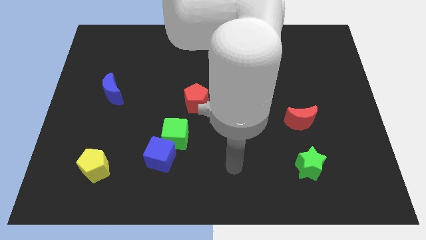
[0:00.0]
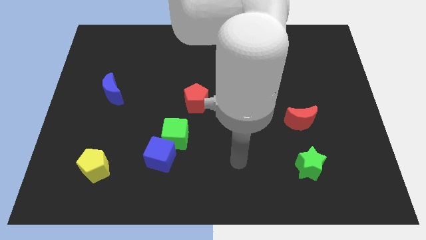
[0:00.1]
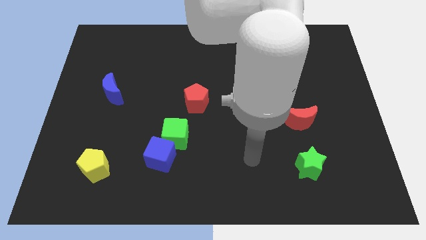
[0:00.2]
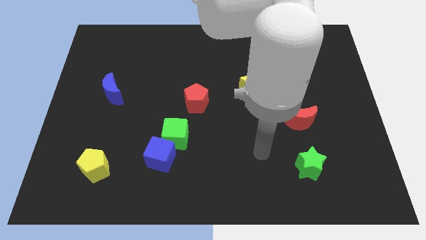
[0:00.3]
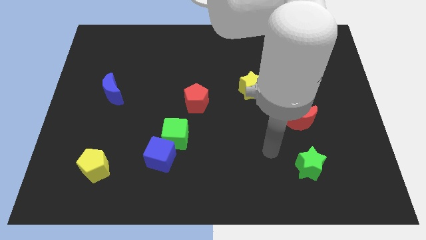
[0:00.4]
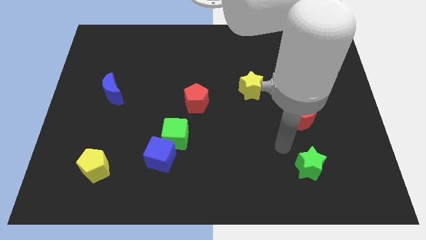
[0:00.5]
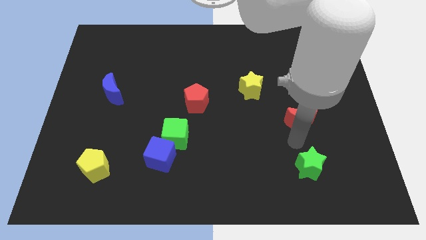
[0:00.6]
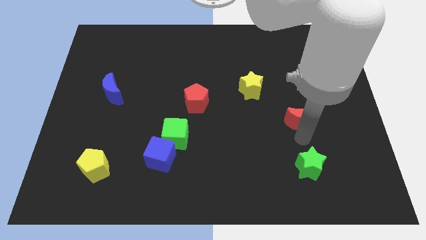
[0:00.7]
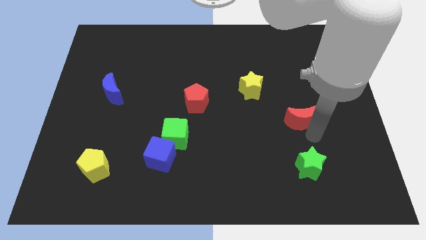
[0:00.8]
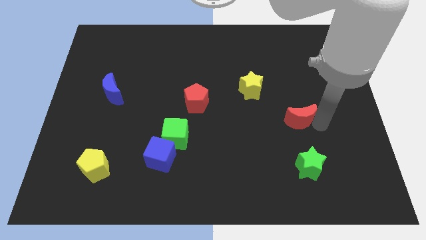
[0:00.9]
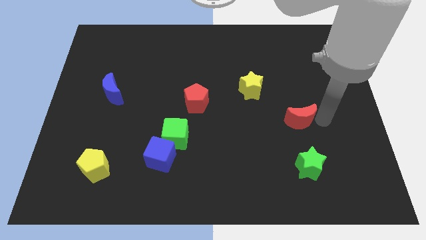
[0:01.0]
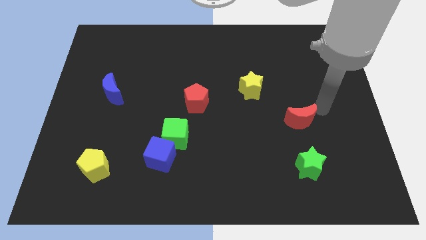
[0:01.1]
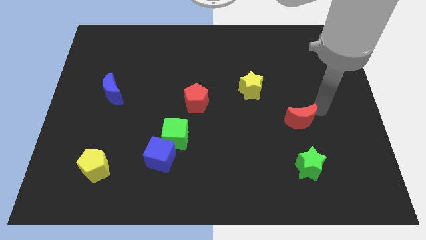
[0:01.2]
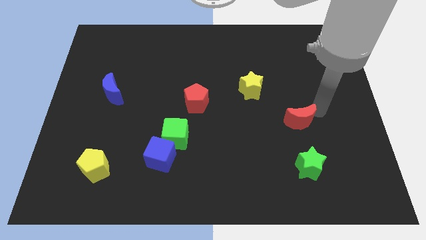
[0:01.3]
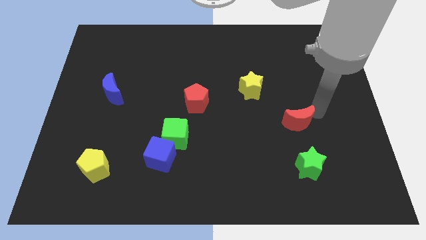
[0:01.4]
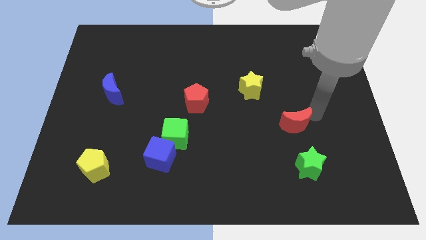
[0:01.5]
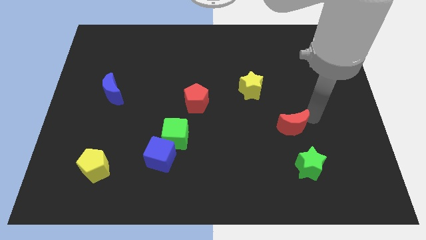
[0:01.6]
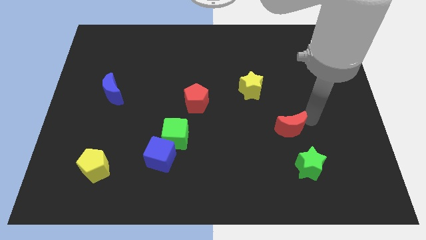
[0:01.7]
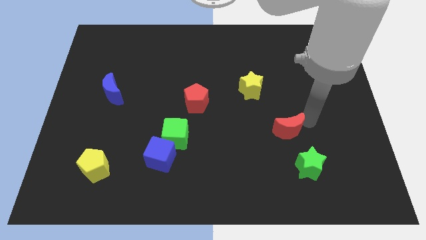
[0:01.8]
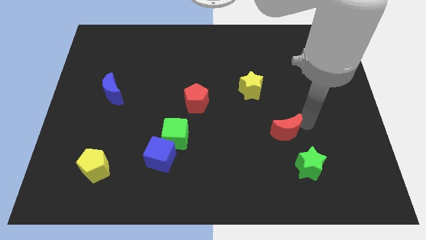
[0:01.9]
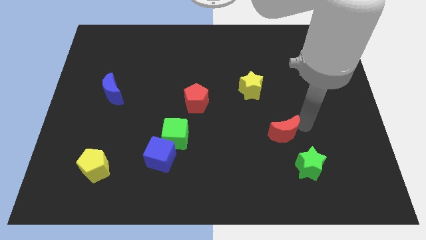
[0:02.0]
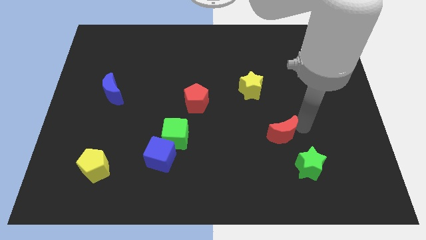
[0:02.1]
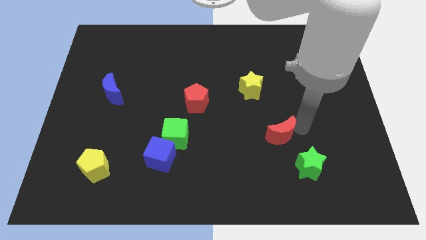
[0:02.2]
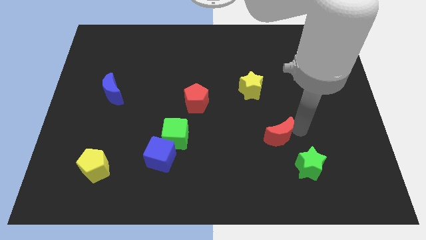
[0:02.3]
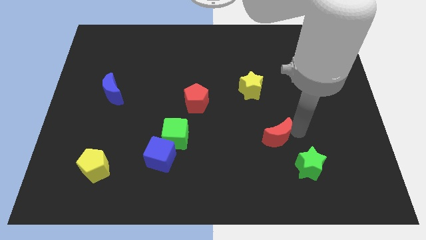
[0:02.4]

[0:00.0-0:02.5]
slide the red moon downwards and left slightly

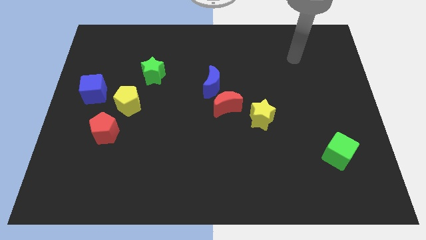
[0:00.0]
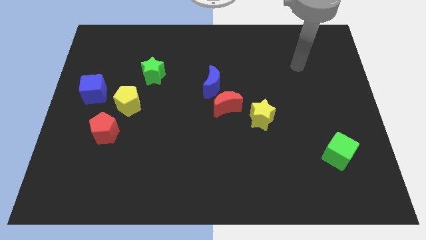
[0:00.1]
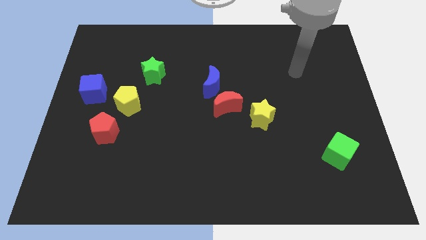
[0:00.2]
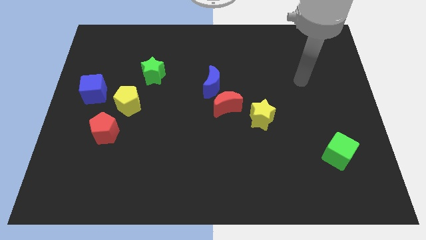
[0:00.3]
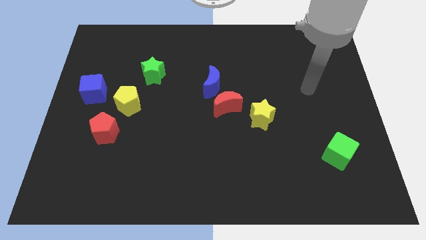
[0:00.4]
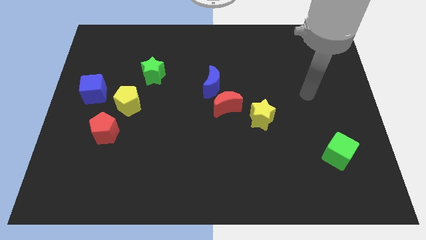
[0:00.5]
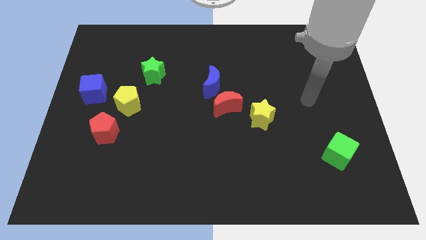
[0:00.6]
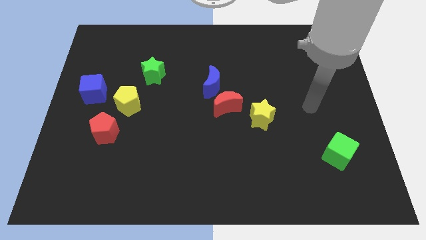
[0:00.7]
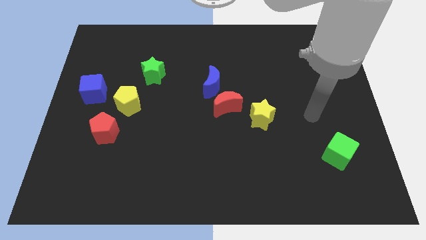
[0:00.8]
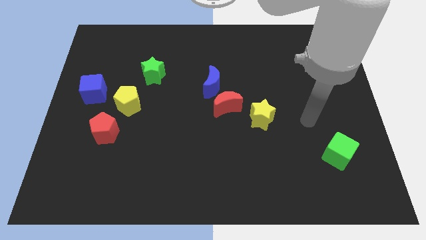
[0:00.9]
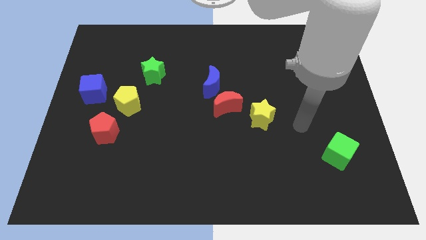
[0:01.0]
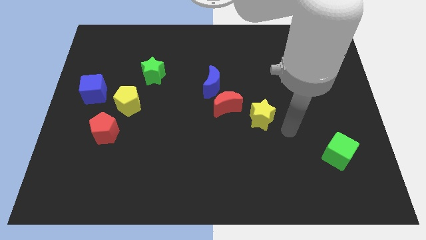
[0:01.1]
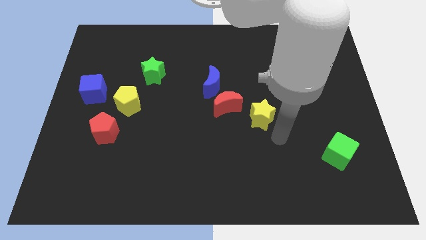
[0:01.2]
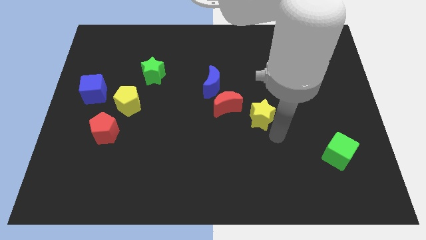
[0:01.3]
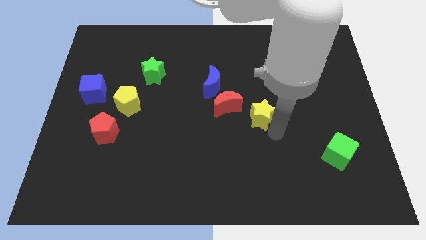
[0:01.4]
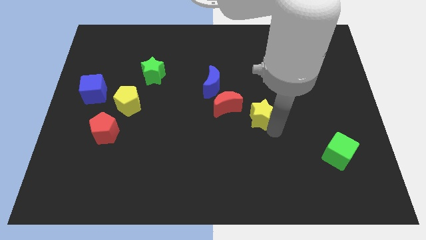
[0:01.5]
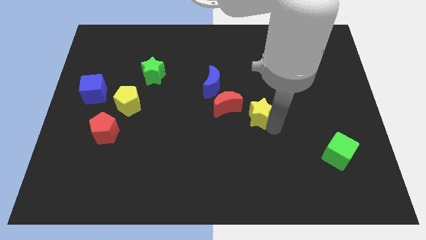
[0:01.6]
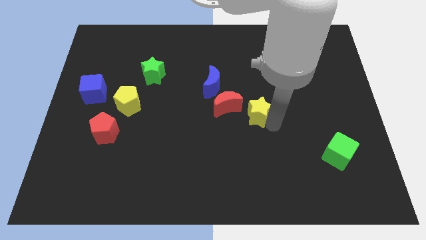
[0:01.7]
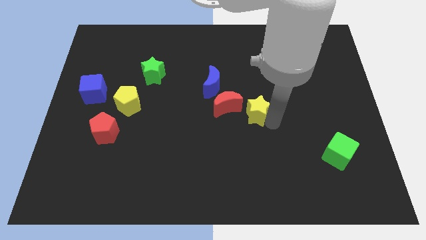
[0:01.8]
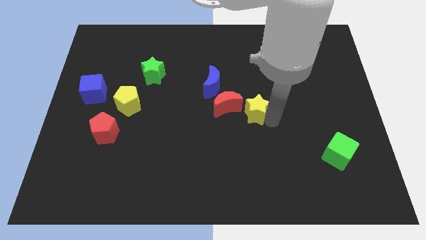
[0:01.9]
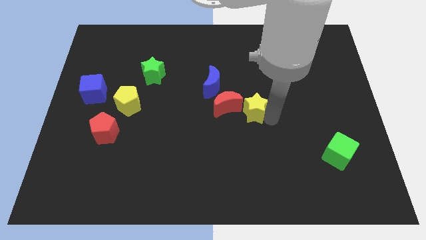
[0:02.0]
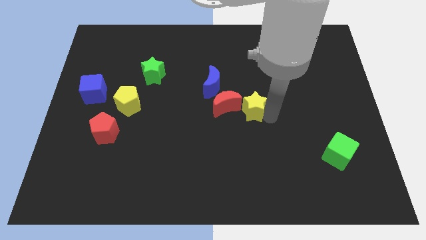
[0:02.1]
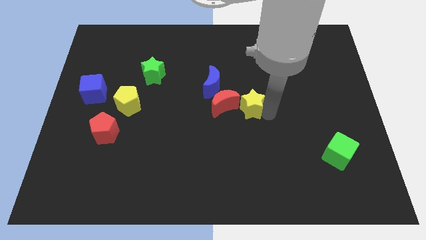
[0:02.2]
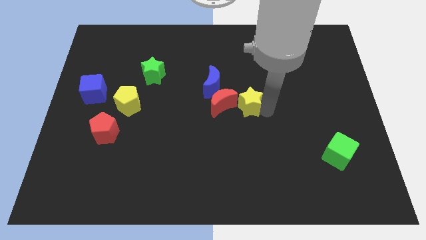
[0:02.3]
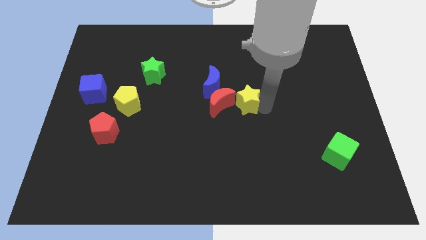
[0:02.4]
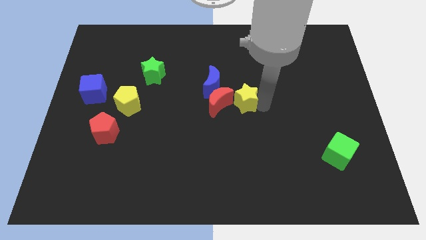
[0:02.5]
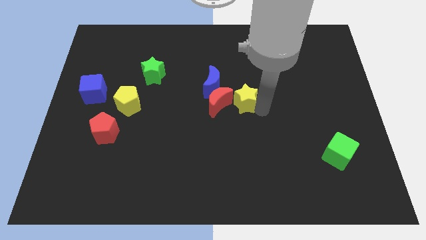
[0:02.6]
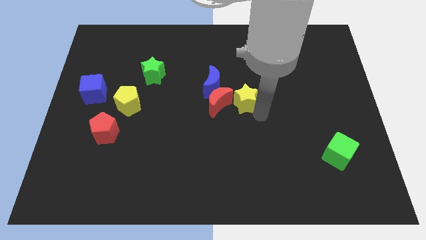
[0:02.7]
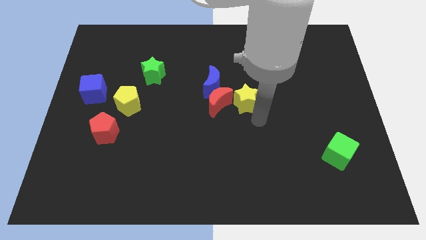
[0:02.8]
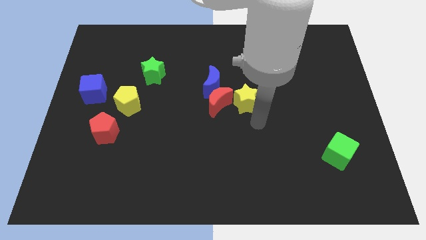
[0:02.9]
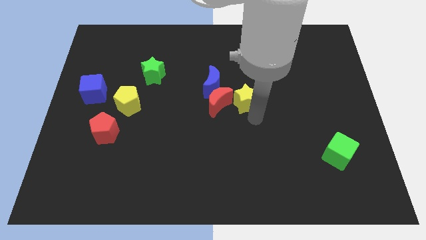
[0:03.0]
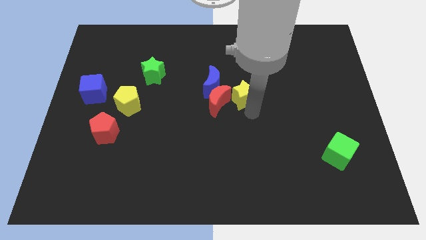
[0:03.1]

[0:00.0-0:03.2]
slightly slide the yellow star upwards and to the left diagonally

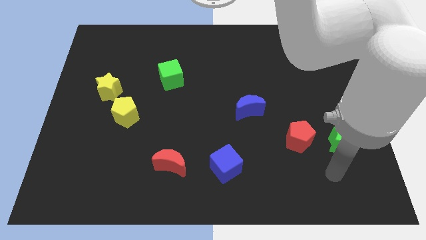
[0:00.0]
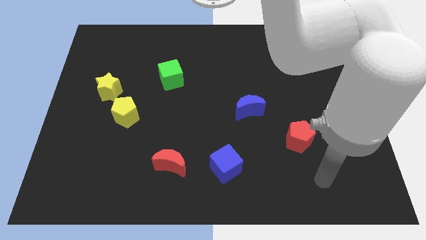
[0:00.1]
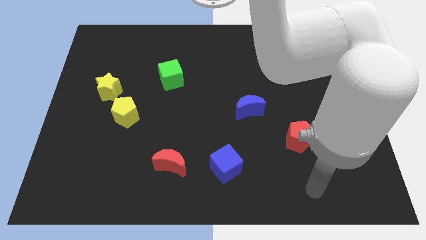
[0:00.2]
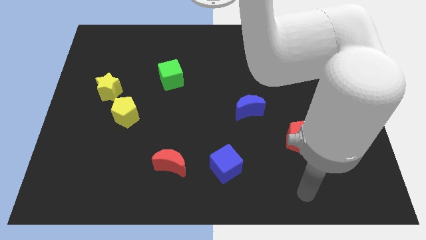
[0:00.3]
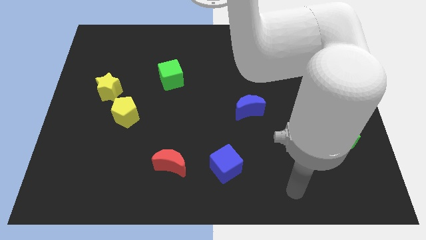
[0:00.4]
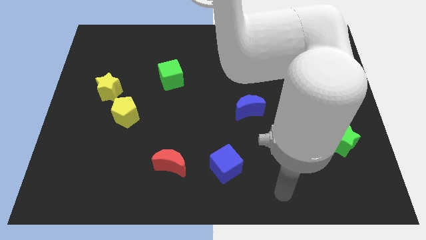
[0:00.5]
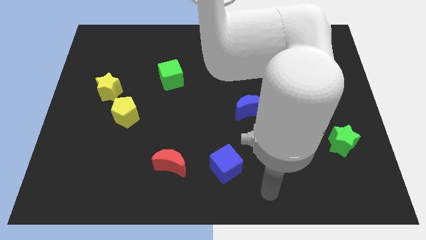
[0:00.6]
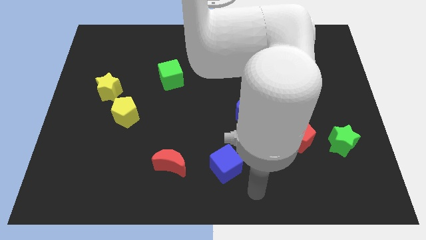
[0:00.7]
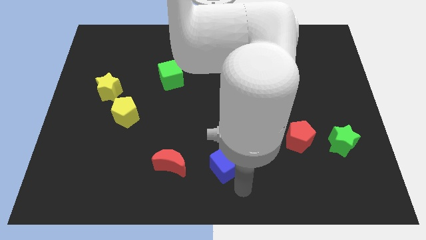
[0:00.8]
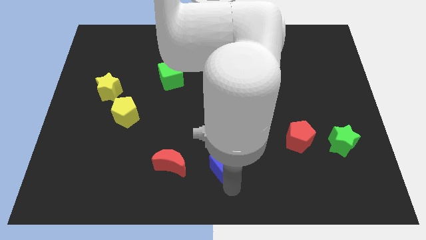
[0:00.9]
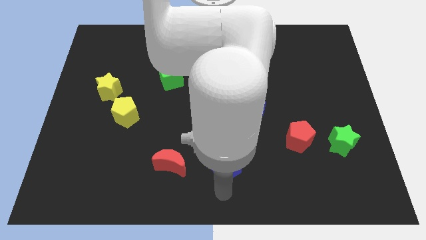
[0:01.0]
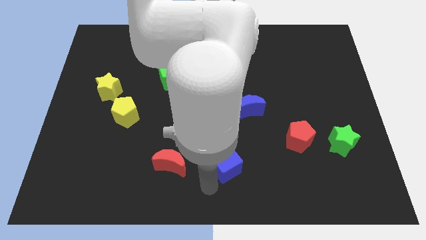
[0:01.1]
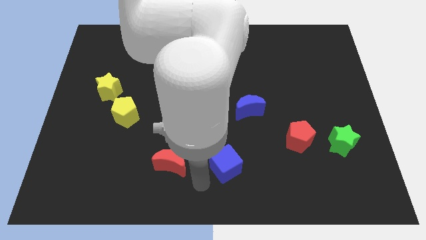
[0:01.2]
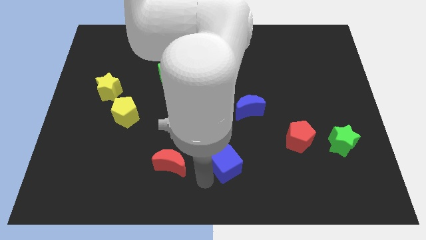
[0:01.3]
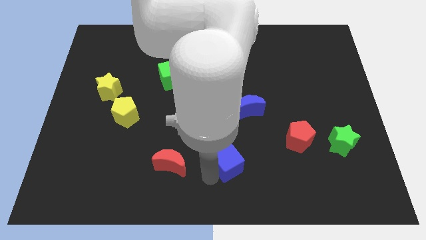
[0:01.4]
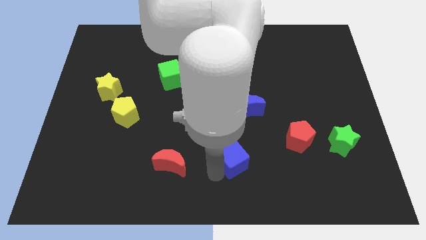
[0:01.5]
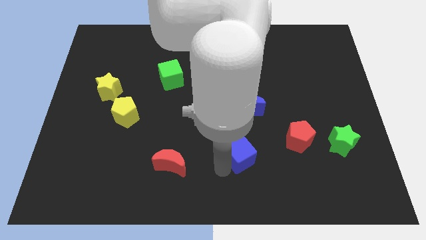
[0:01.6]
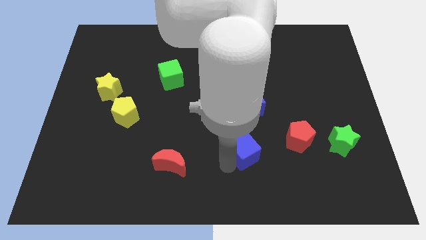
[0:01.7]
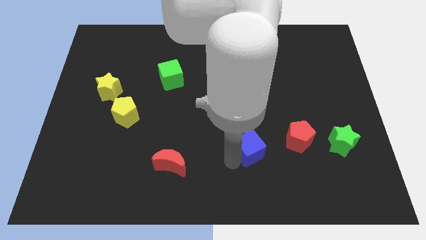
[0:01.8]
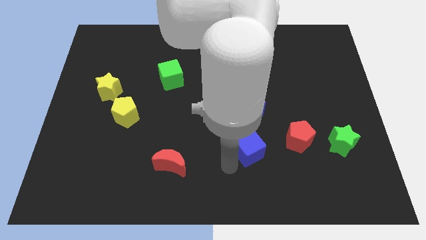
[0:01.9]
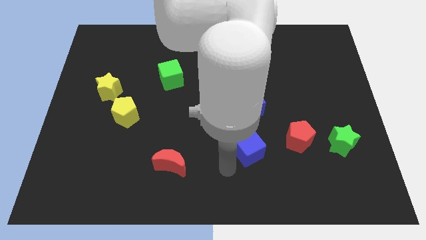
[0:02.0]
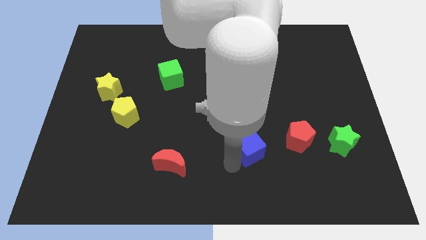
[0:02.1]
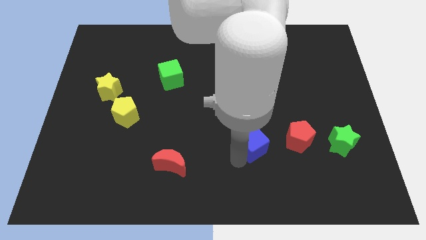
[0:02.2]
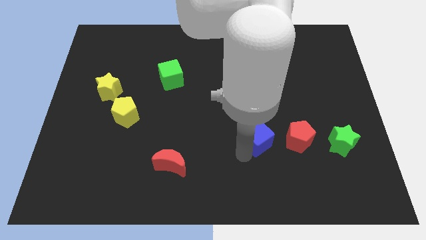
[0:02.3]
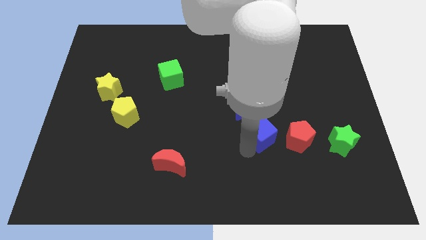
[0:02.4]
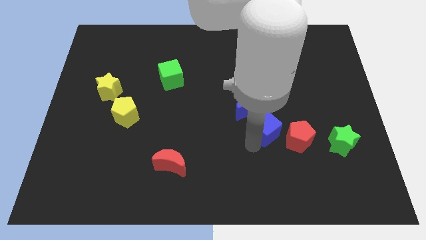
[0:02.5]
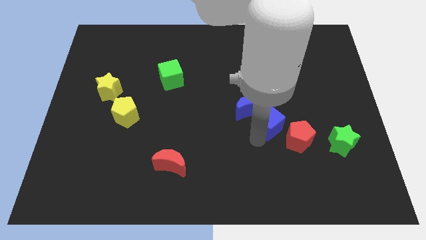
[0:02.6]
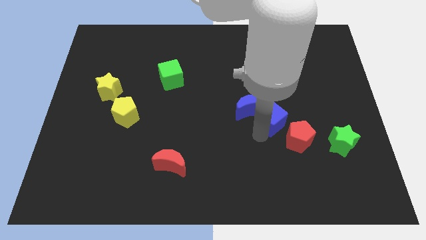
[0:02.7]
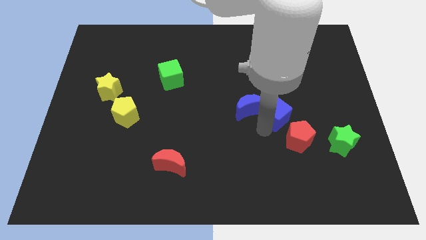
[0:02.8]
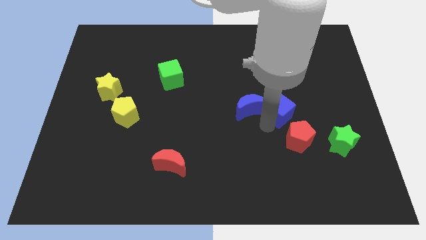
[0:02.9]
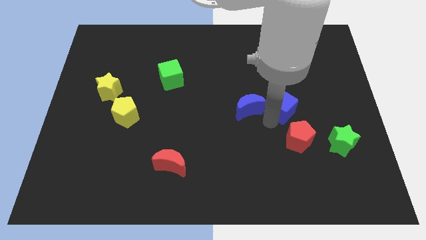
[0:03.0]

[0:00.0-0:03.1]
slide the blue cube upwards and right
